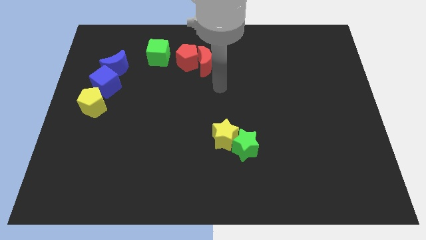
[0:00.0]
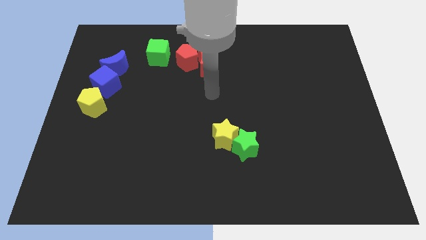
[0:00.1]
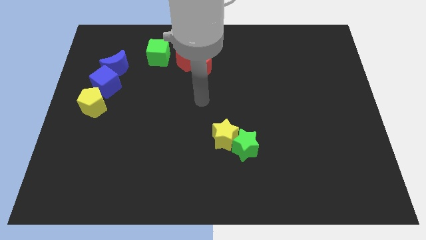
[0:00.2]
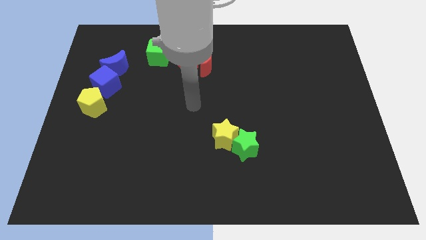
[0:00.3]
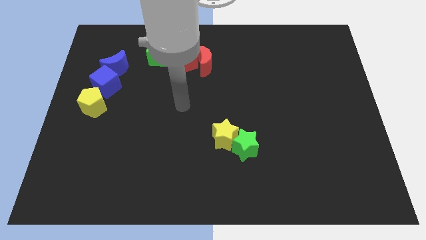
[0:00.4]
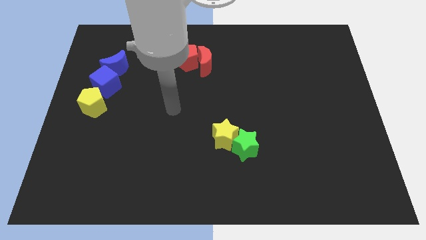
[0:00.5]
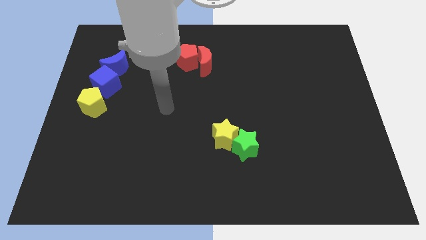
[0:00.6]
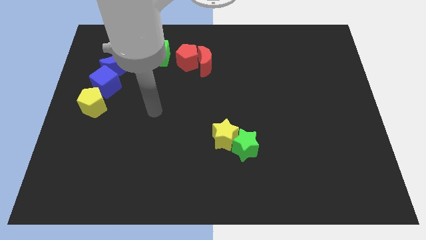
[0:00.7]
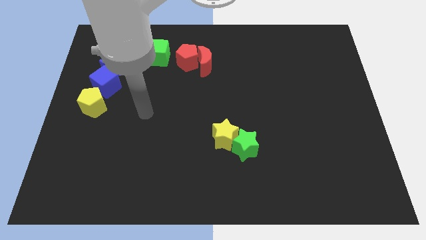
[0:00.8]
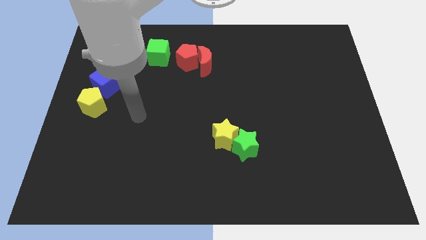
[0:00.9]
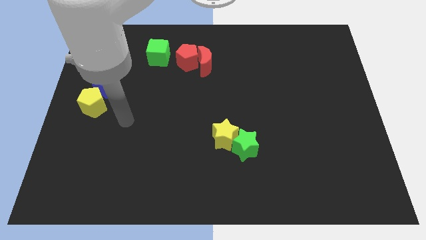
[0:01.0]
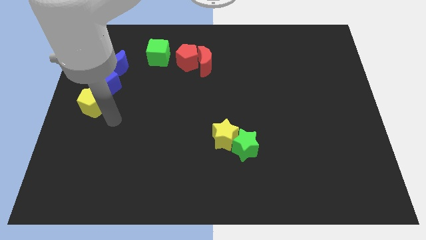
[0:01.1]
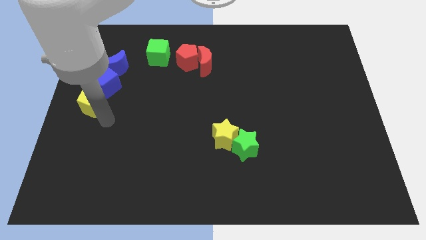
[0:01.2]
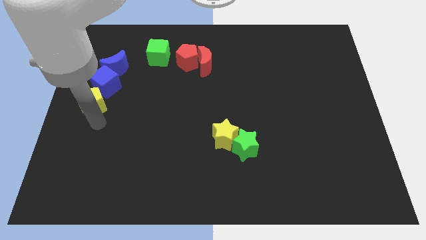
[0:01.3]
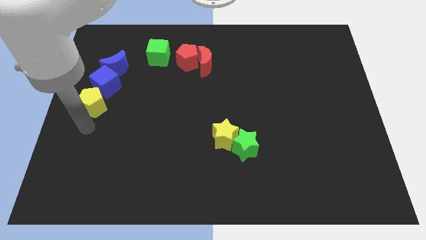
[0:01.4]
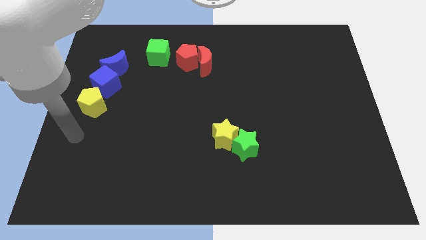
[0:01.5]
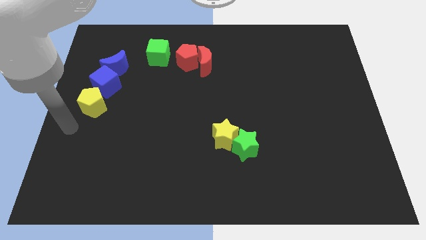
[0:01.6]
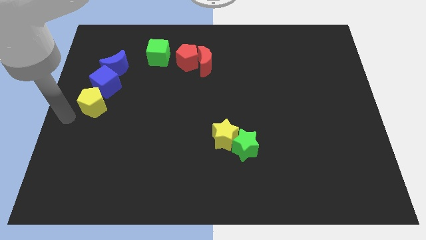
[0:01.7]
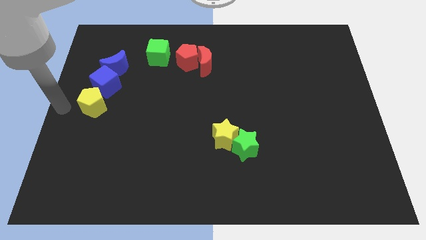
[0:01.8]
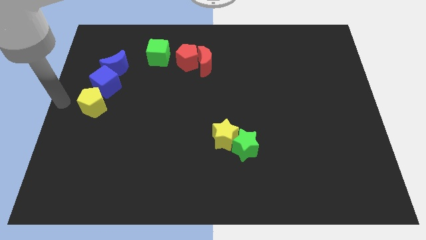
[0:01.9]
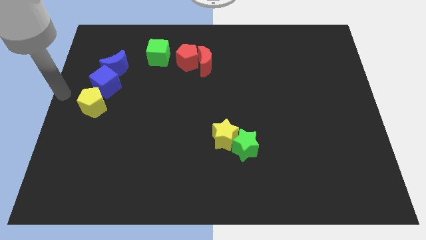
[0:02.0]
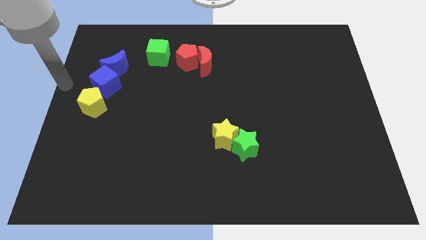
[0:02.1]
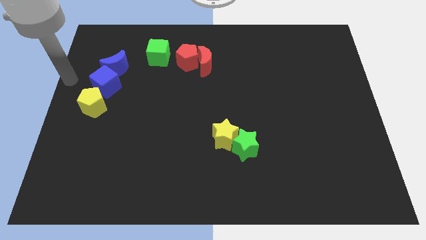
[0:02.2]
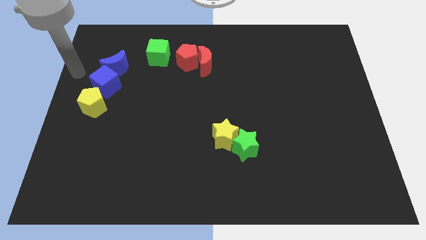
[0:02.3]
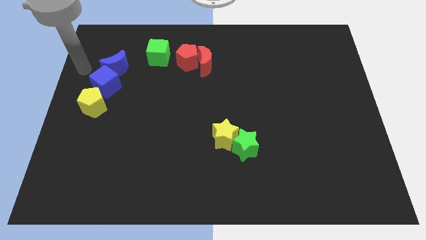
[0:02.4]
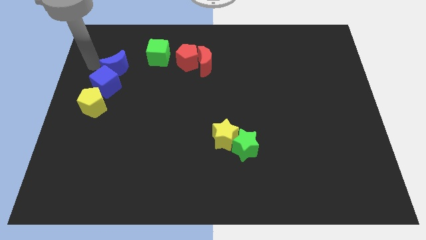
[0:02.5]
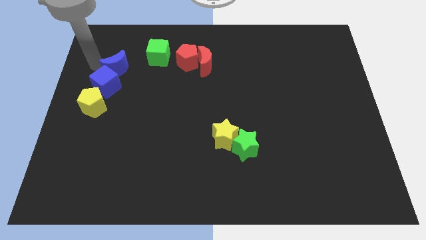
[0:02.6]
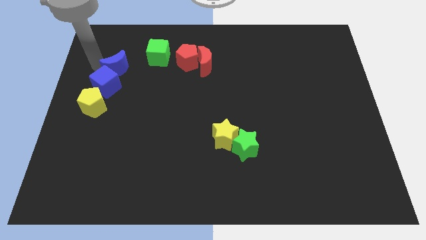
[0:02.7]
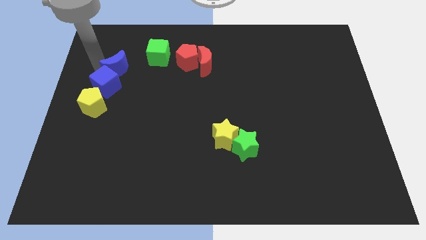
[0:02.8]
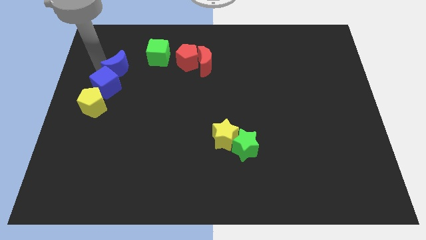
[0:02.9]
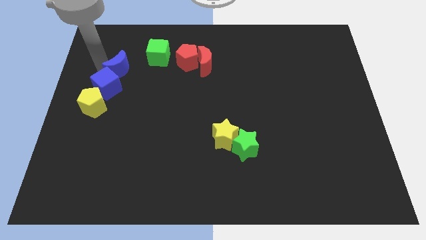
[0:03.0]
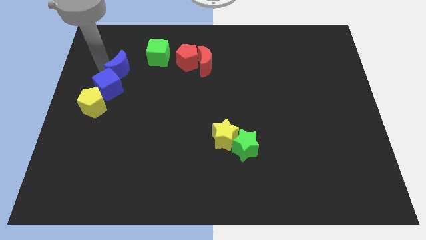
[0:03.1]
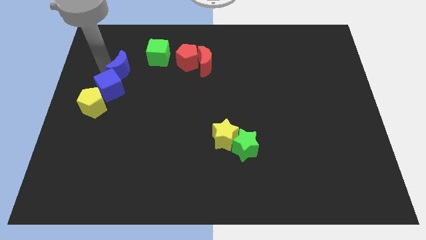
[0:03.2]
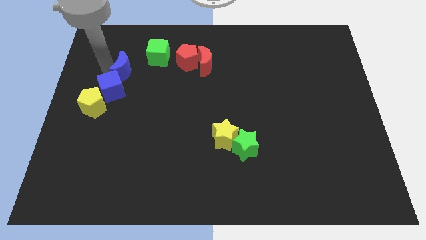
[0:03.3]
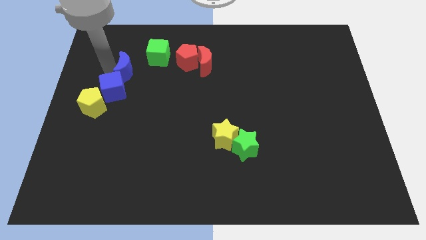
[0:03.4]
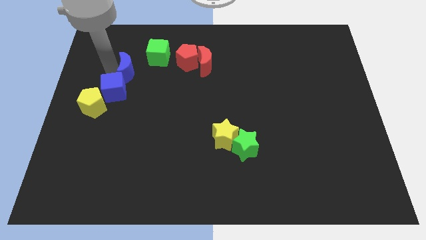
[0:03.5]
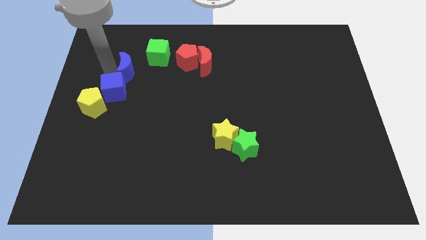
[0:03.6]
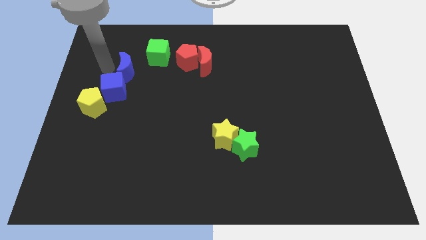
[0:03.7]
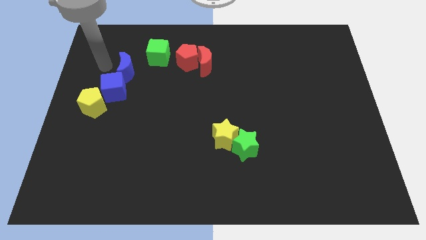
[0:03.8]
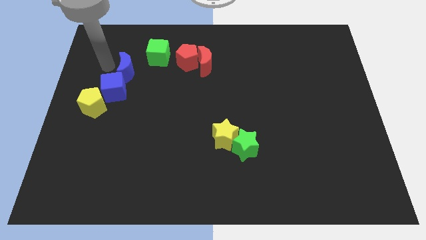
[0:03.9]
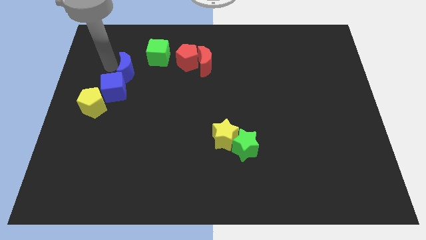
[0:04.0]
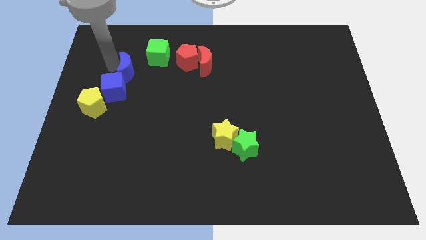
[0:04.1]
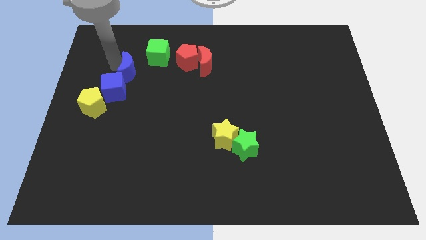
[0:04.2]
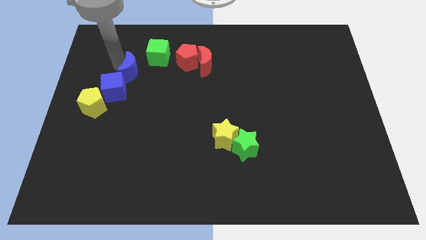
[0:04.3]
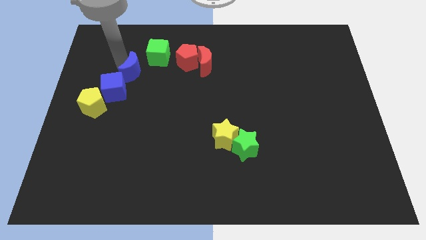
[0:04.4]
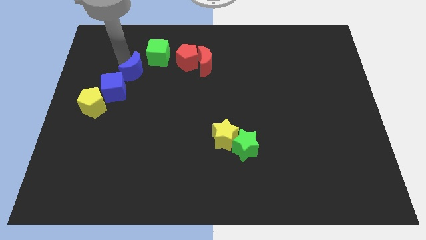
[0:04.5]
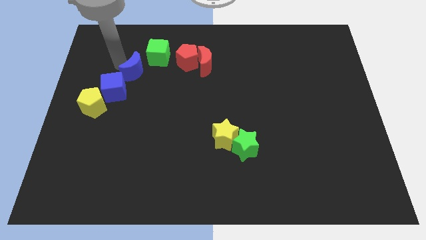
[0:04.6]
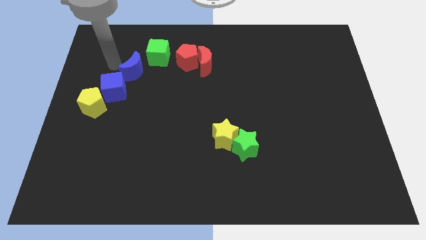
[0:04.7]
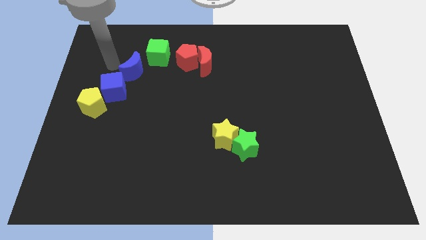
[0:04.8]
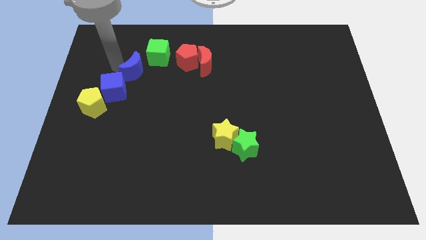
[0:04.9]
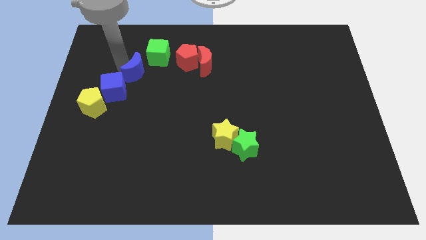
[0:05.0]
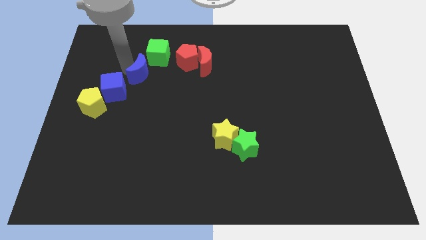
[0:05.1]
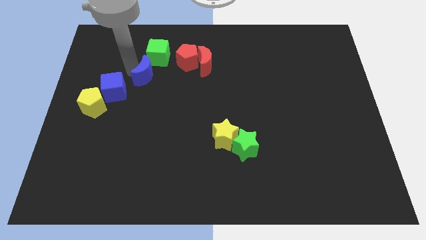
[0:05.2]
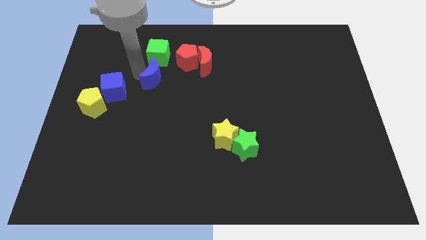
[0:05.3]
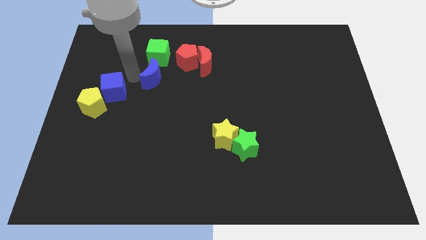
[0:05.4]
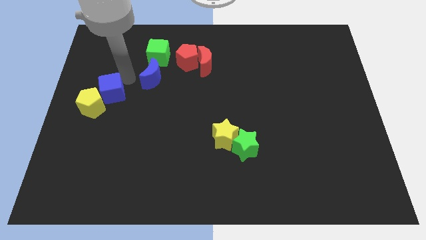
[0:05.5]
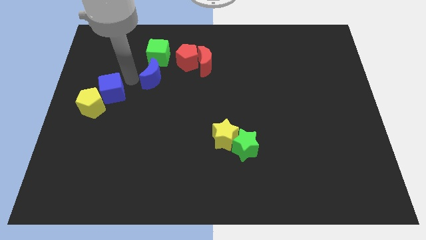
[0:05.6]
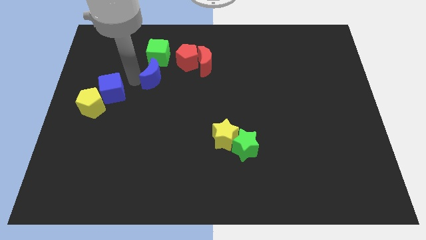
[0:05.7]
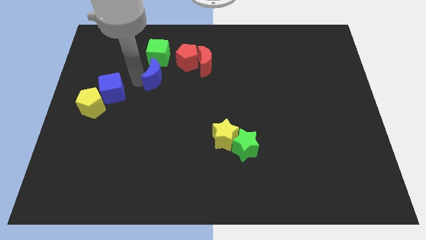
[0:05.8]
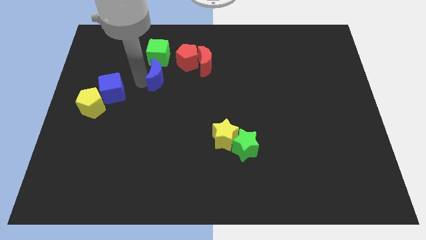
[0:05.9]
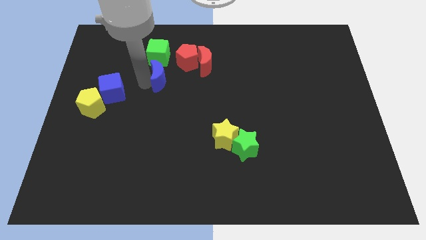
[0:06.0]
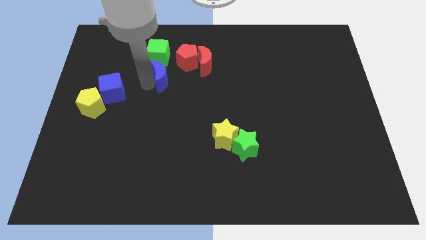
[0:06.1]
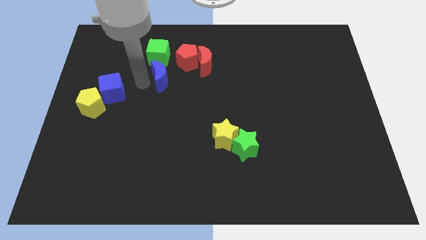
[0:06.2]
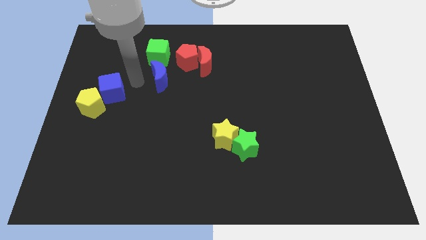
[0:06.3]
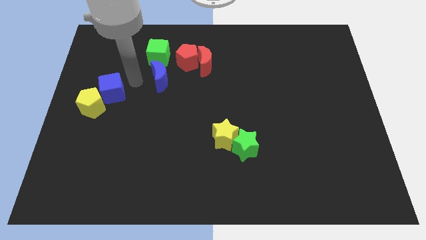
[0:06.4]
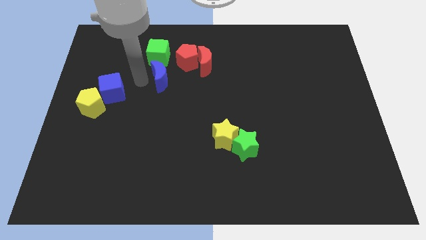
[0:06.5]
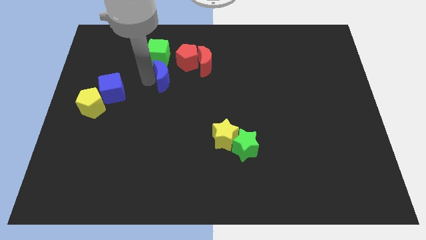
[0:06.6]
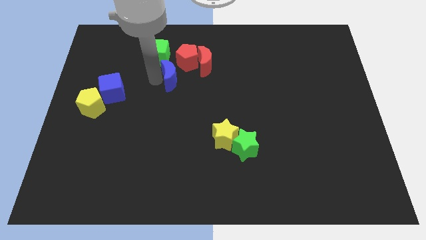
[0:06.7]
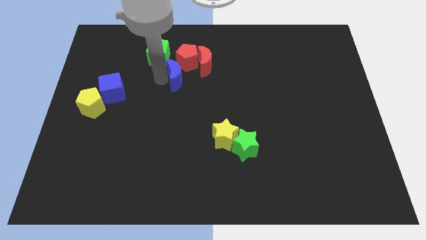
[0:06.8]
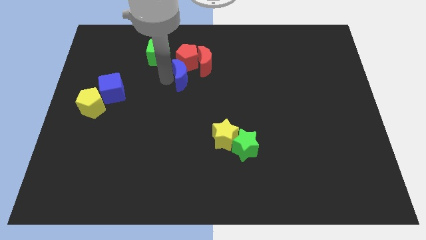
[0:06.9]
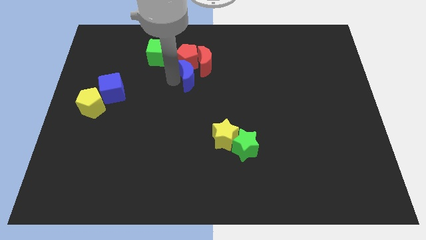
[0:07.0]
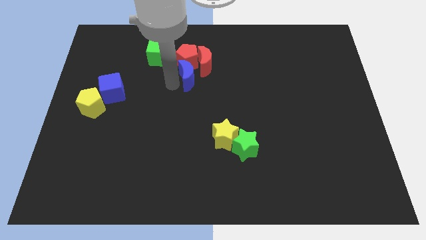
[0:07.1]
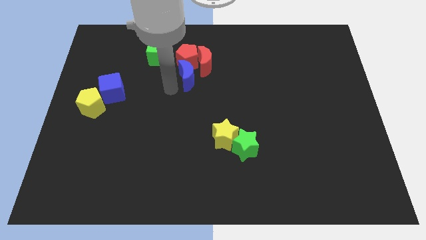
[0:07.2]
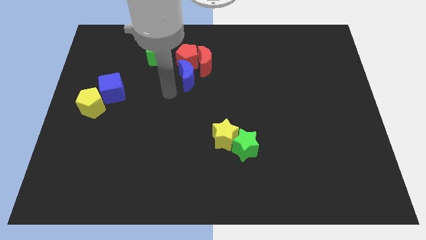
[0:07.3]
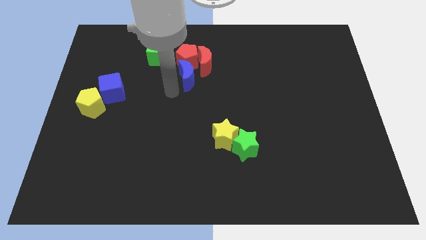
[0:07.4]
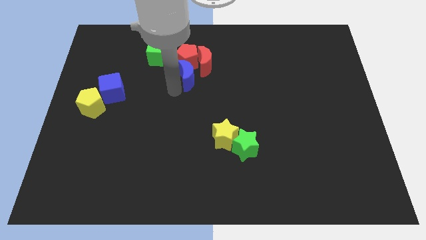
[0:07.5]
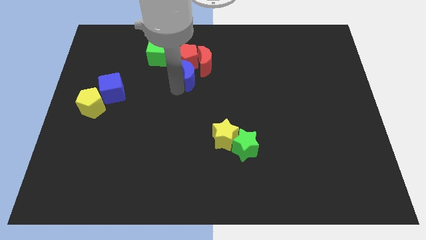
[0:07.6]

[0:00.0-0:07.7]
slide the blue moon towards the red moon
